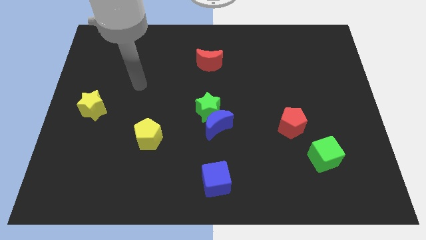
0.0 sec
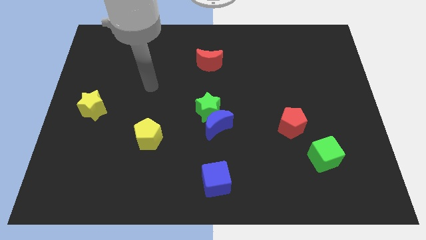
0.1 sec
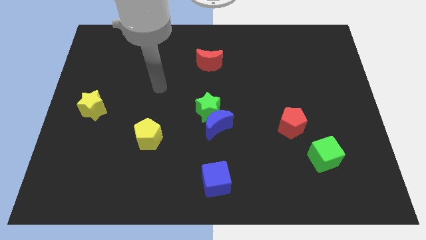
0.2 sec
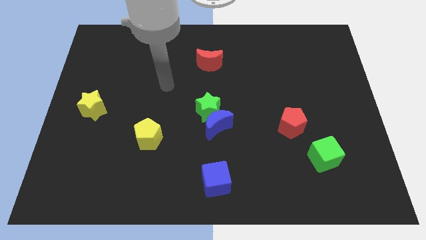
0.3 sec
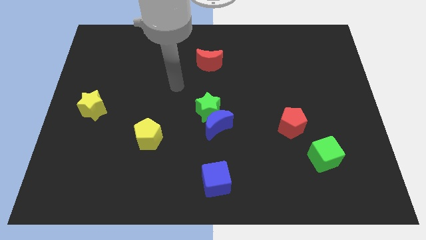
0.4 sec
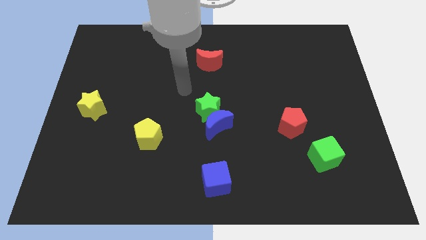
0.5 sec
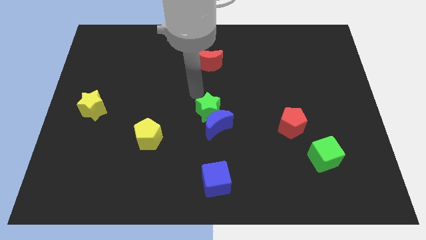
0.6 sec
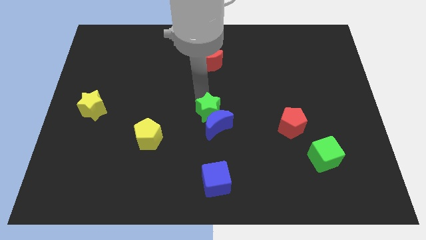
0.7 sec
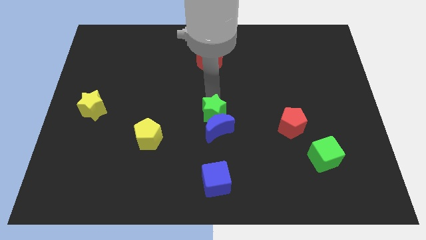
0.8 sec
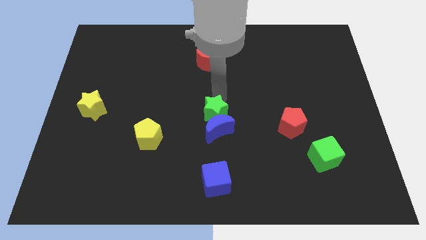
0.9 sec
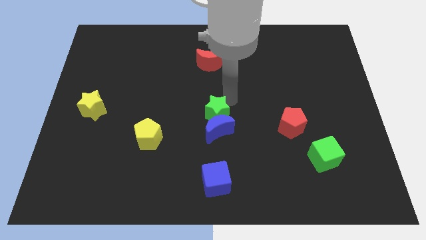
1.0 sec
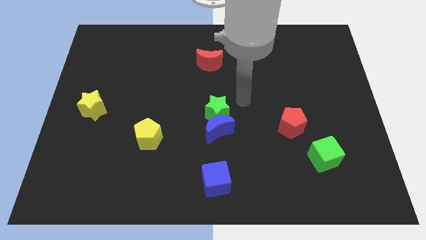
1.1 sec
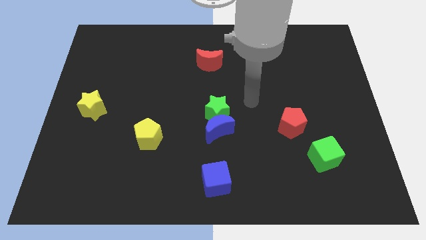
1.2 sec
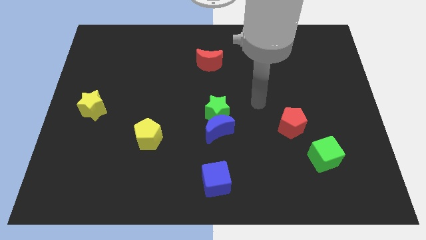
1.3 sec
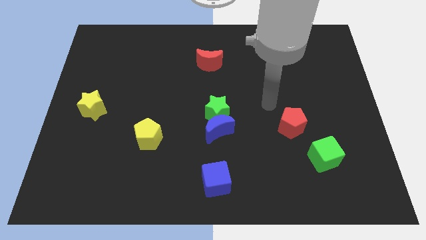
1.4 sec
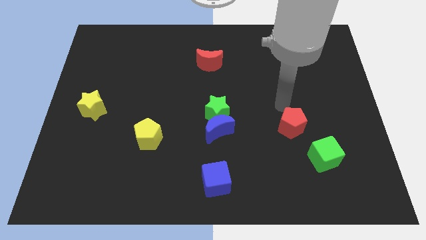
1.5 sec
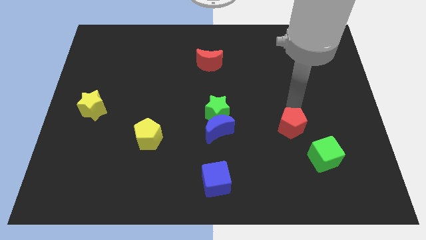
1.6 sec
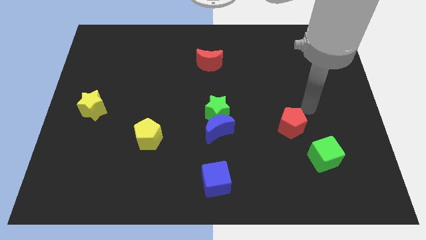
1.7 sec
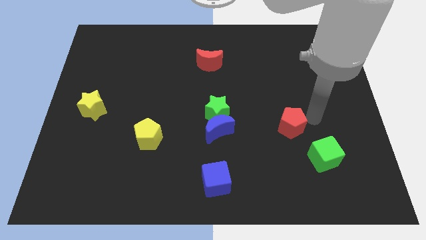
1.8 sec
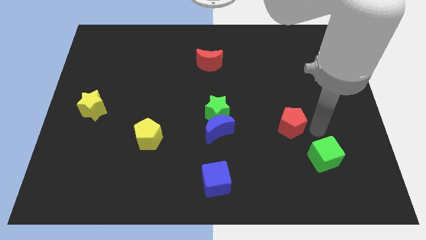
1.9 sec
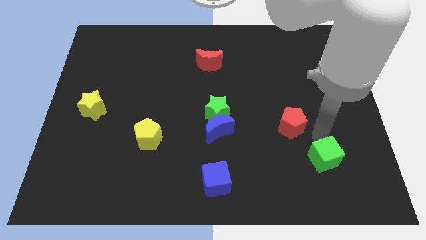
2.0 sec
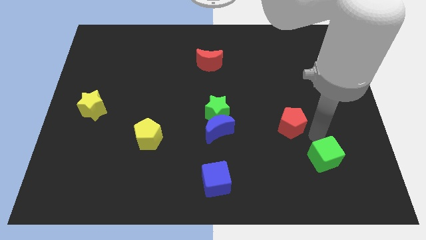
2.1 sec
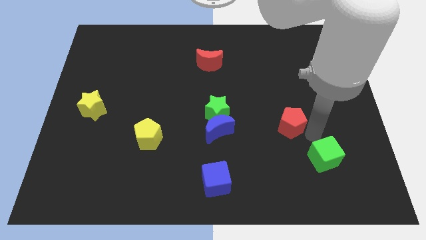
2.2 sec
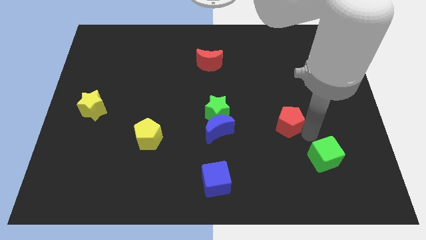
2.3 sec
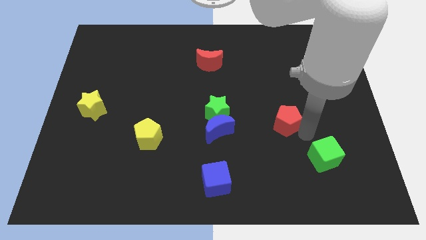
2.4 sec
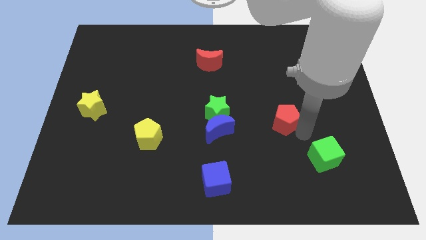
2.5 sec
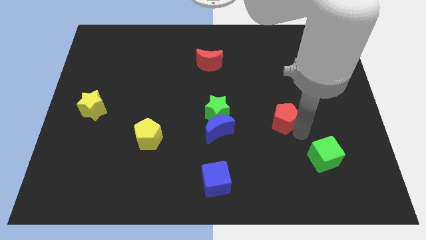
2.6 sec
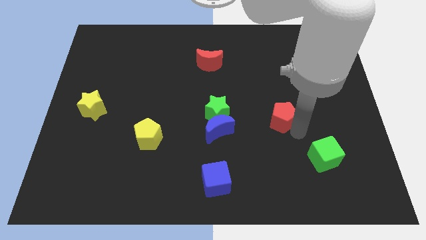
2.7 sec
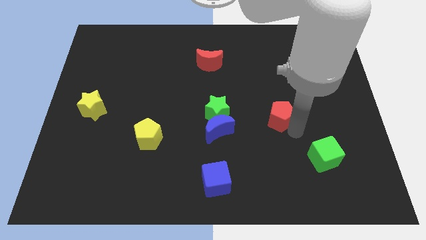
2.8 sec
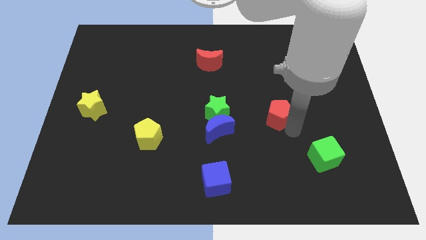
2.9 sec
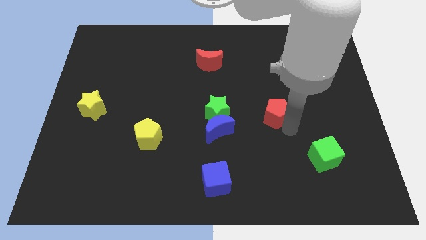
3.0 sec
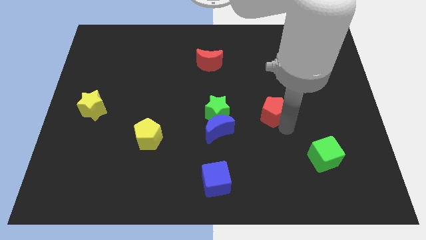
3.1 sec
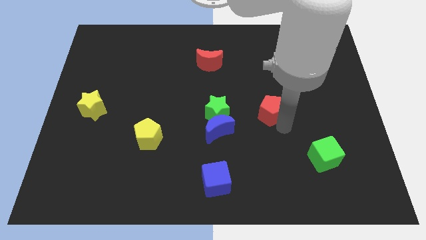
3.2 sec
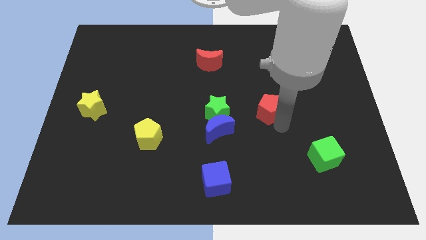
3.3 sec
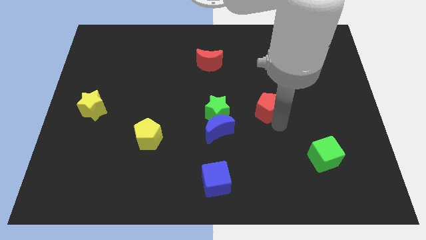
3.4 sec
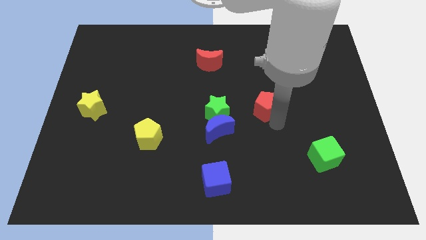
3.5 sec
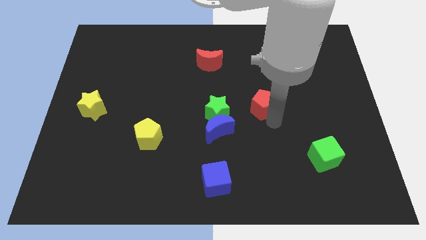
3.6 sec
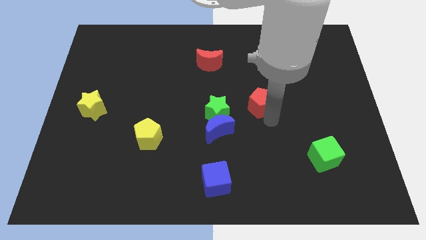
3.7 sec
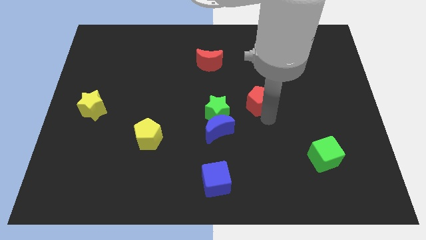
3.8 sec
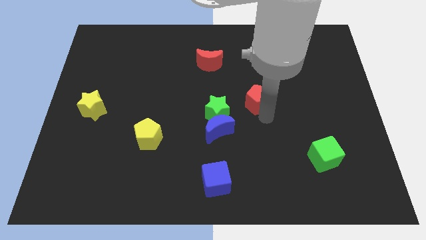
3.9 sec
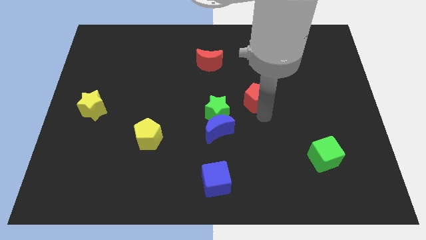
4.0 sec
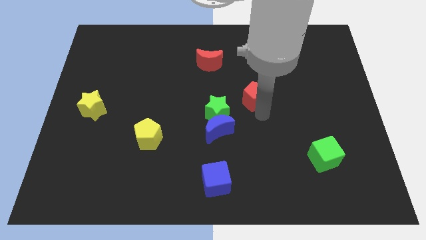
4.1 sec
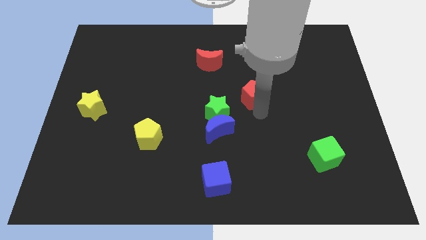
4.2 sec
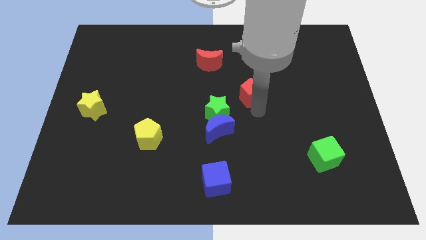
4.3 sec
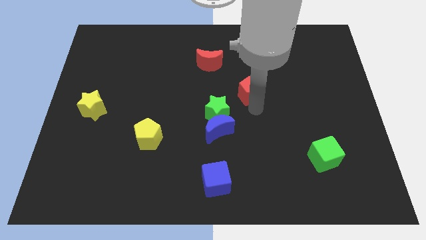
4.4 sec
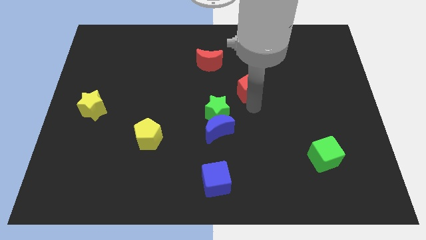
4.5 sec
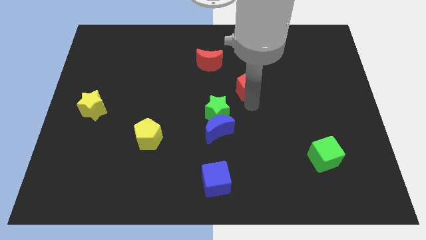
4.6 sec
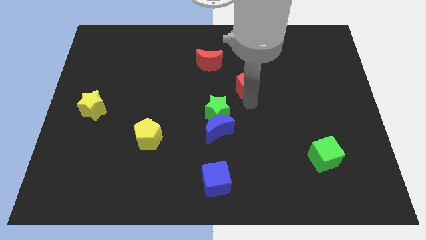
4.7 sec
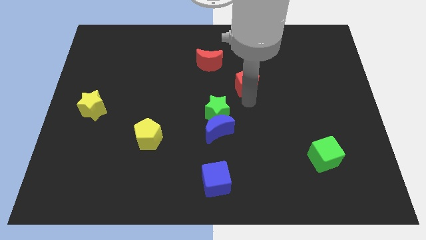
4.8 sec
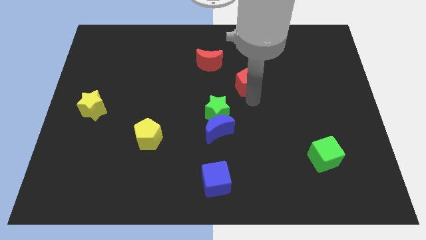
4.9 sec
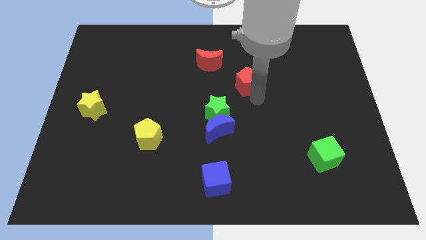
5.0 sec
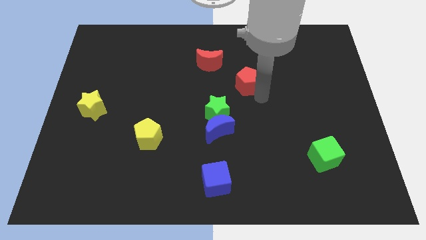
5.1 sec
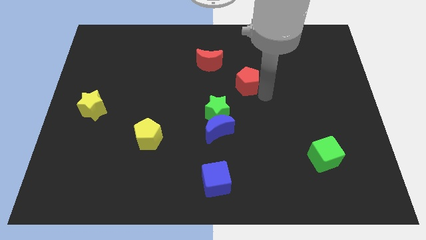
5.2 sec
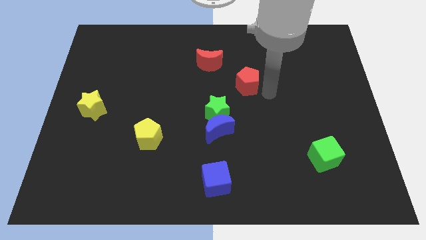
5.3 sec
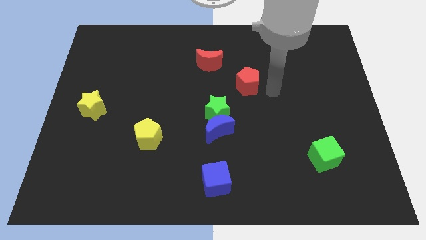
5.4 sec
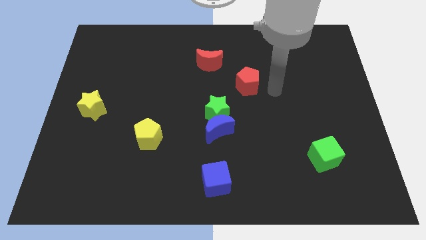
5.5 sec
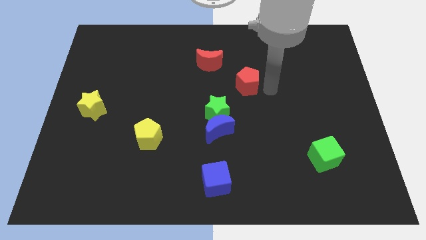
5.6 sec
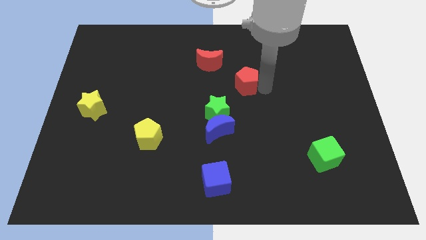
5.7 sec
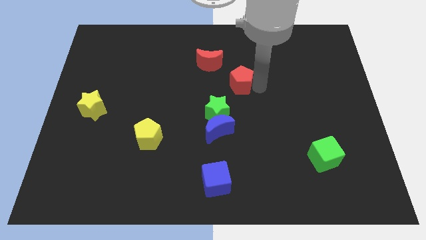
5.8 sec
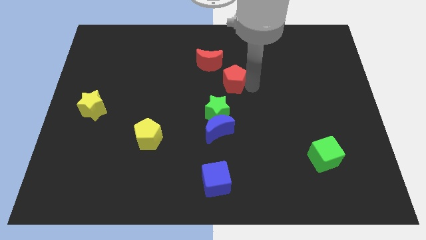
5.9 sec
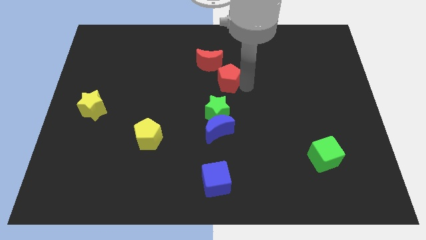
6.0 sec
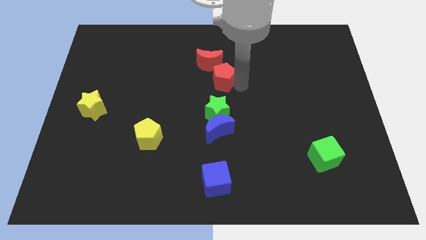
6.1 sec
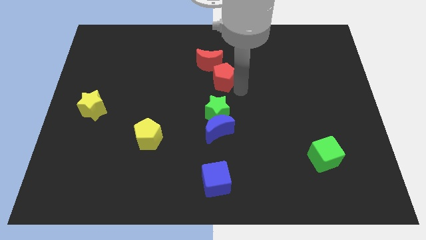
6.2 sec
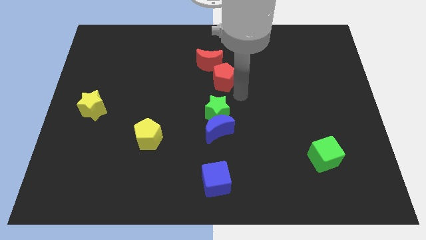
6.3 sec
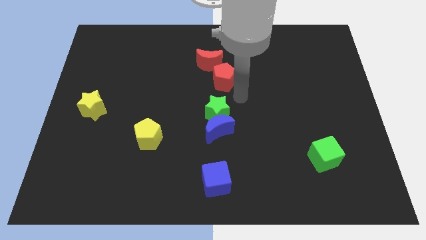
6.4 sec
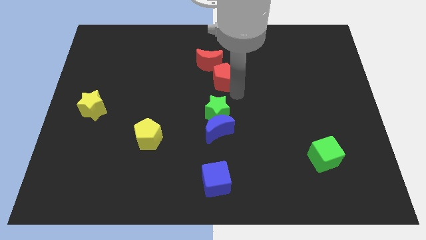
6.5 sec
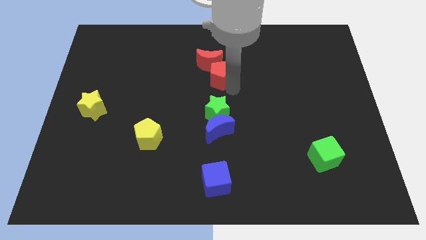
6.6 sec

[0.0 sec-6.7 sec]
move the red pentagon to the red moon

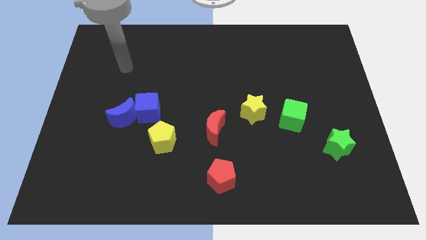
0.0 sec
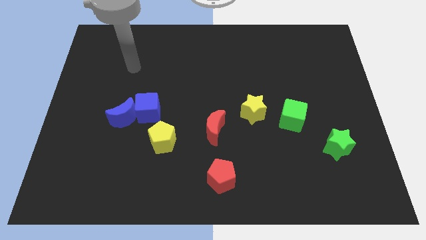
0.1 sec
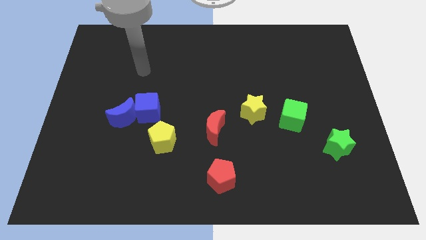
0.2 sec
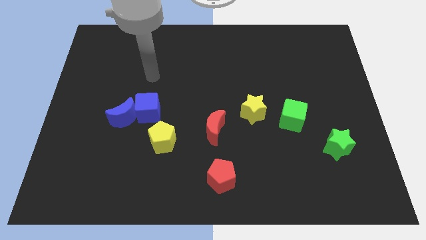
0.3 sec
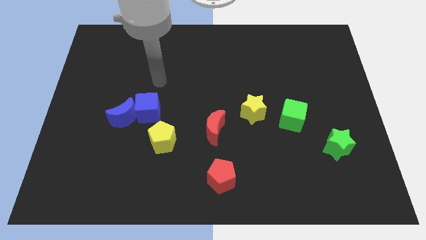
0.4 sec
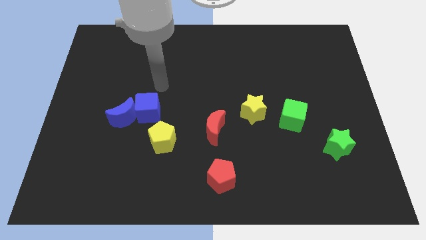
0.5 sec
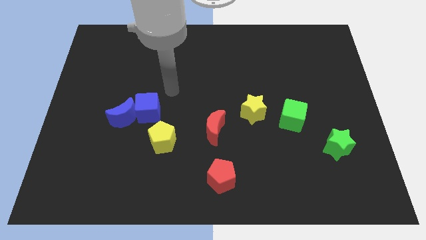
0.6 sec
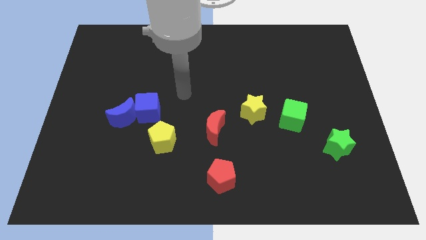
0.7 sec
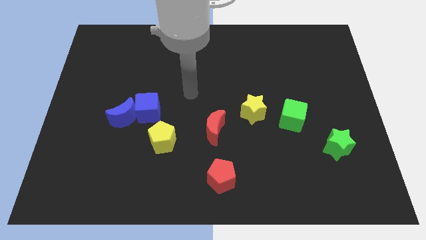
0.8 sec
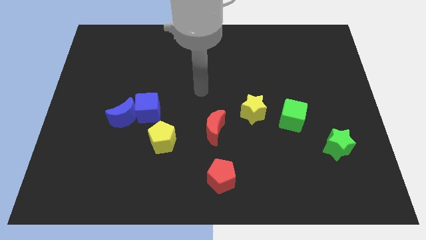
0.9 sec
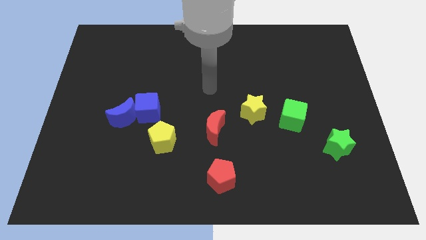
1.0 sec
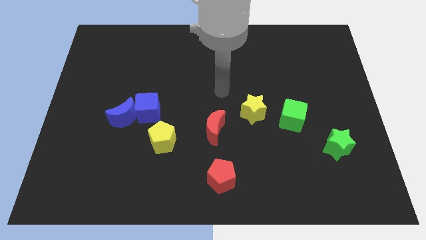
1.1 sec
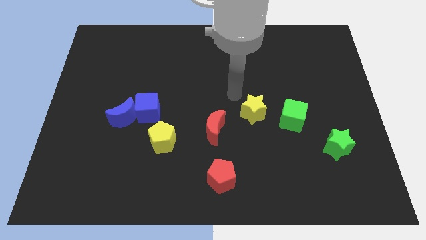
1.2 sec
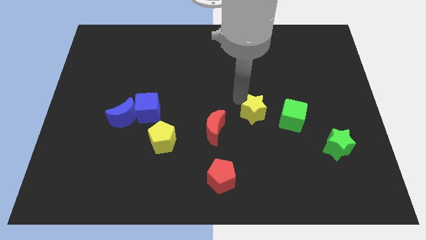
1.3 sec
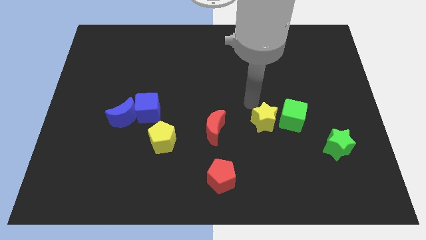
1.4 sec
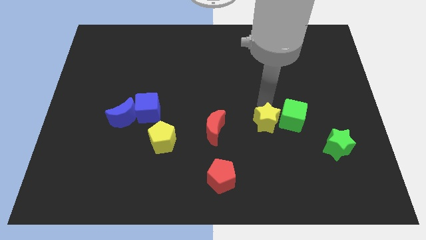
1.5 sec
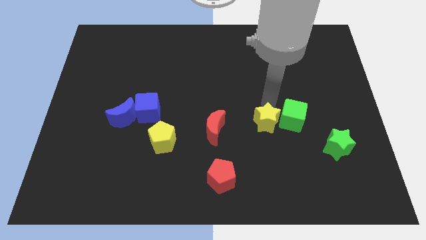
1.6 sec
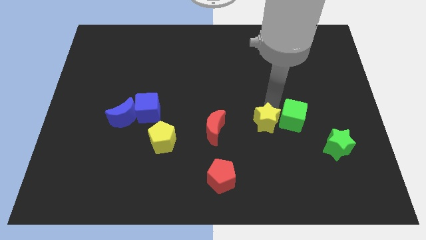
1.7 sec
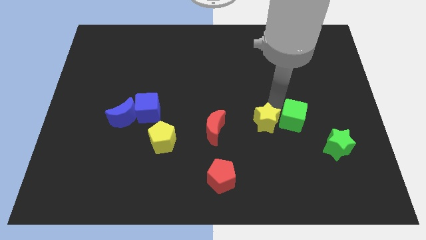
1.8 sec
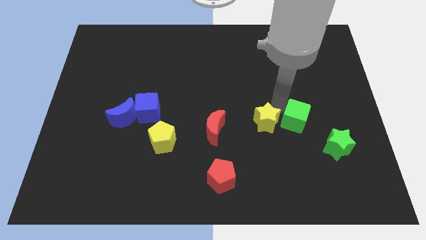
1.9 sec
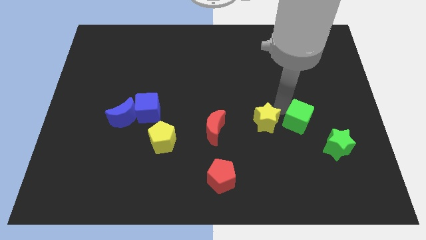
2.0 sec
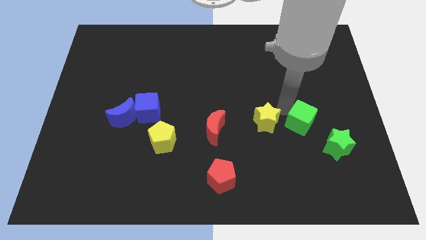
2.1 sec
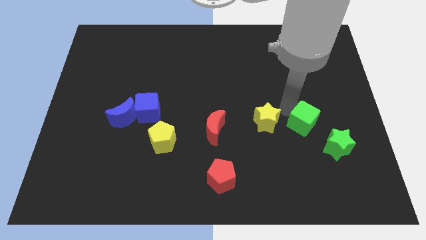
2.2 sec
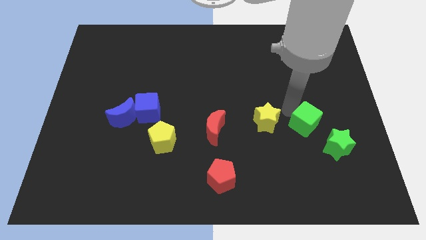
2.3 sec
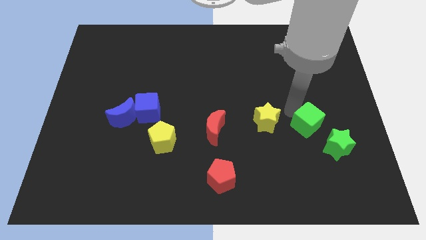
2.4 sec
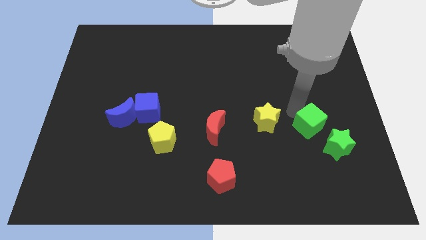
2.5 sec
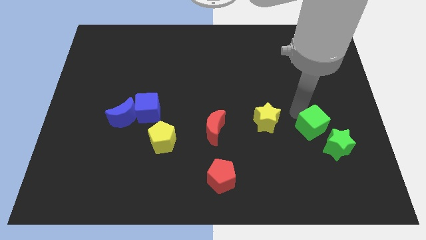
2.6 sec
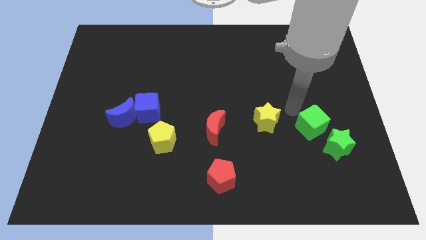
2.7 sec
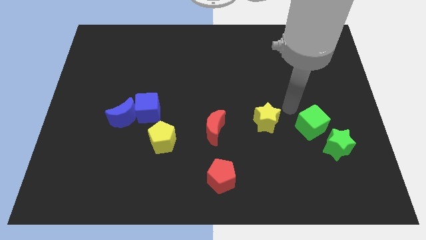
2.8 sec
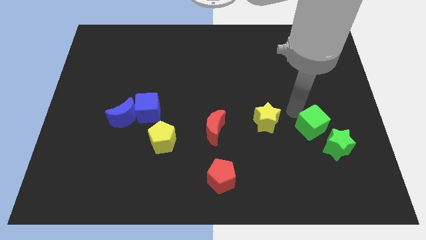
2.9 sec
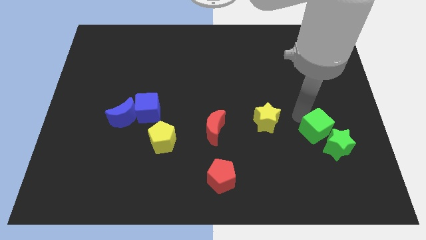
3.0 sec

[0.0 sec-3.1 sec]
put the green cube towards the green star
